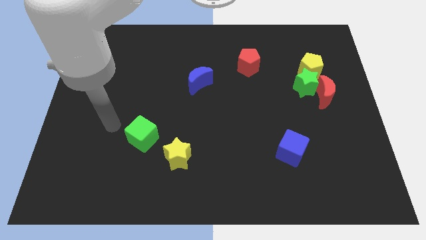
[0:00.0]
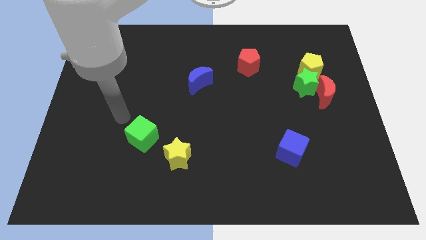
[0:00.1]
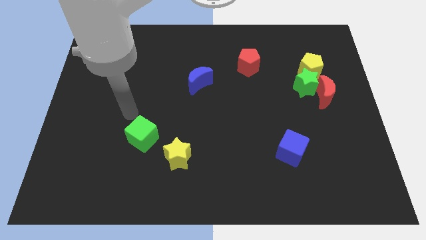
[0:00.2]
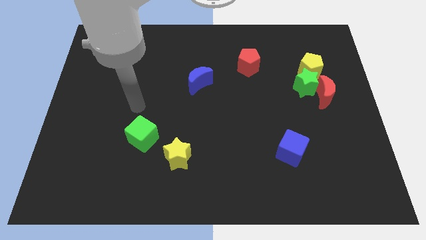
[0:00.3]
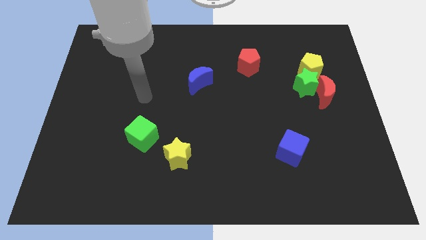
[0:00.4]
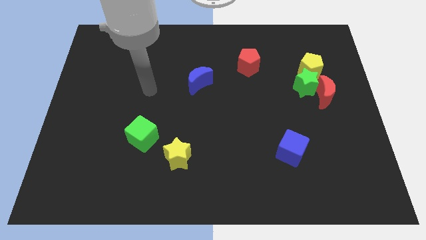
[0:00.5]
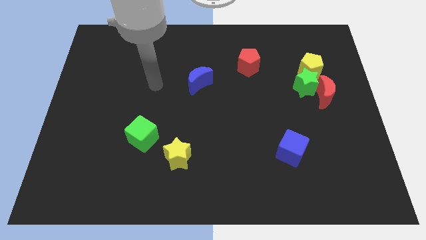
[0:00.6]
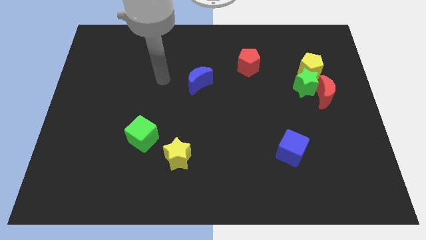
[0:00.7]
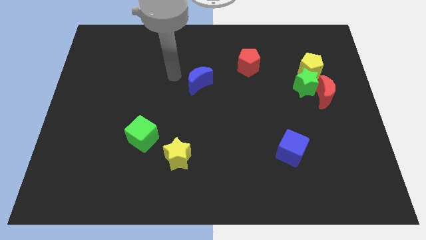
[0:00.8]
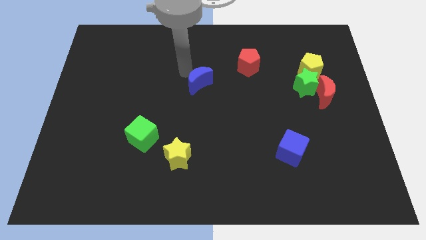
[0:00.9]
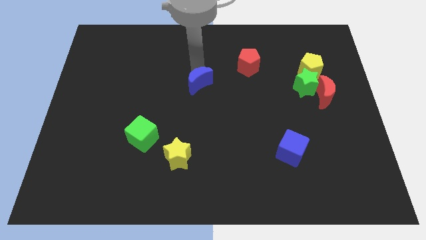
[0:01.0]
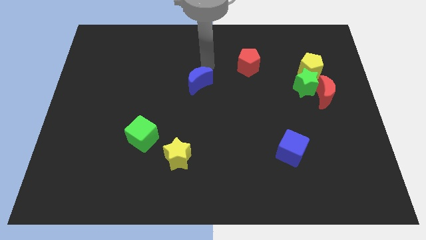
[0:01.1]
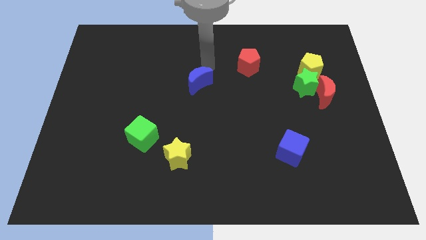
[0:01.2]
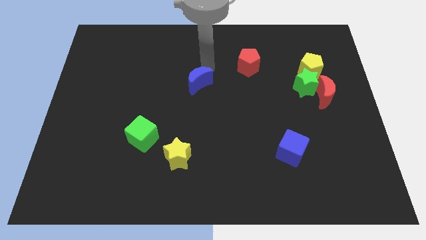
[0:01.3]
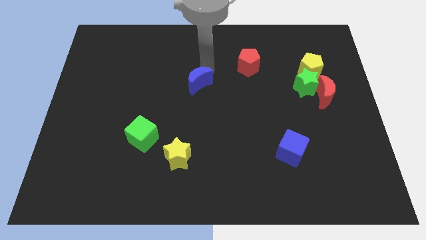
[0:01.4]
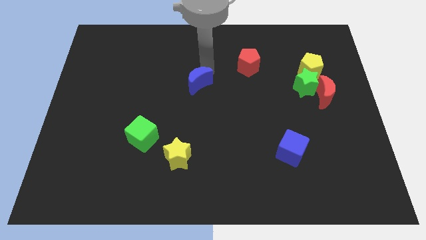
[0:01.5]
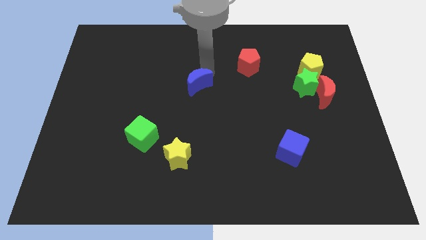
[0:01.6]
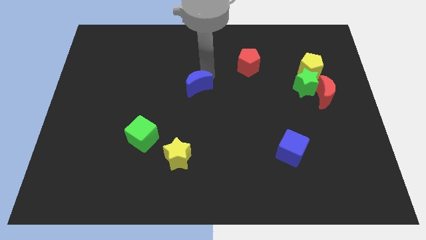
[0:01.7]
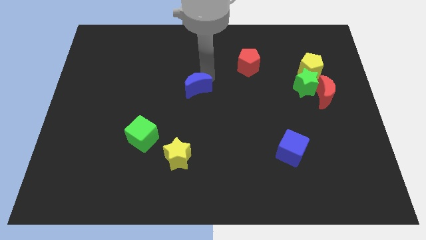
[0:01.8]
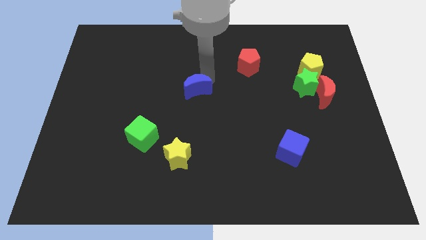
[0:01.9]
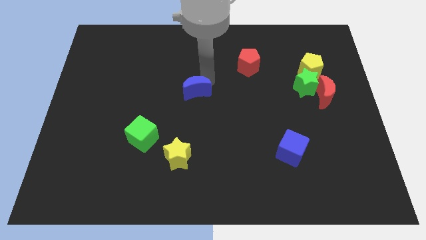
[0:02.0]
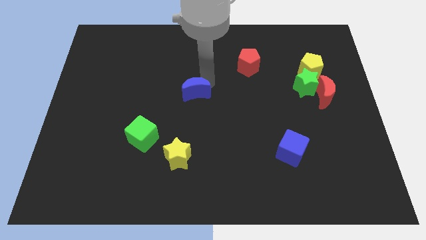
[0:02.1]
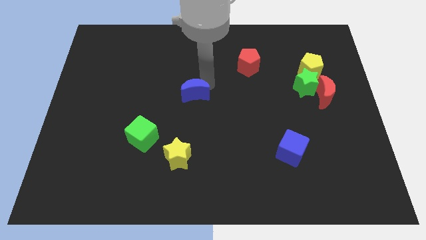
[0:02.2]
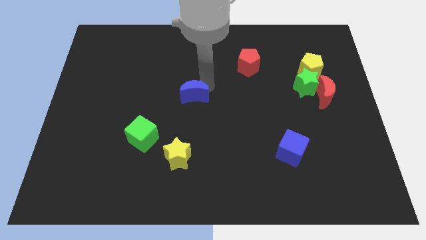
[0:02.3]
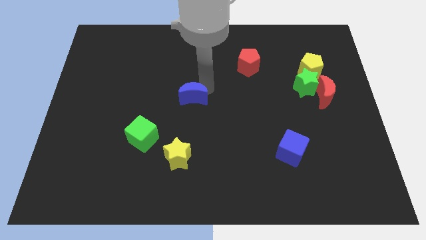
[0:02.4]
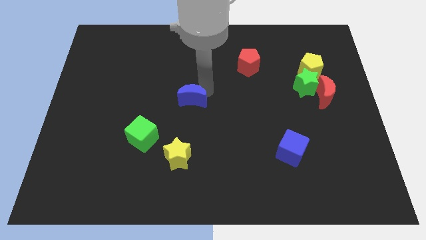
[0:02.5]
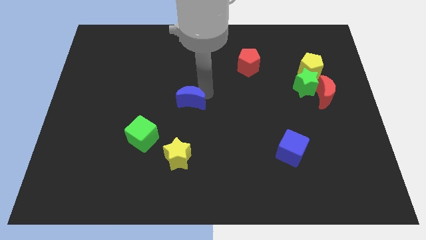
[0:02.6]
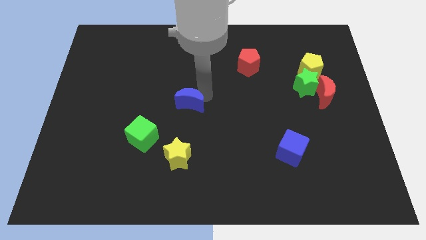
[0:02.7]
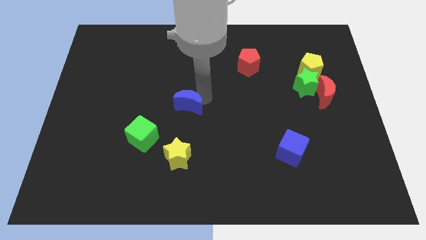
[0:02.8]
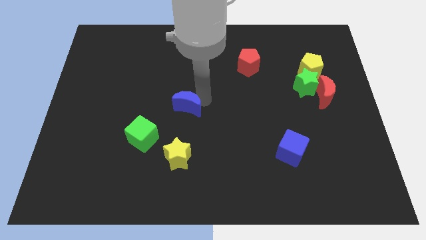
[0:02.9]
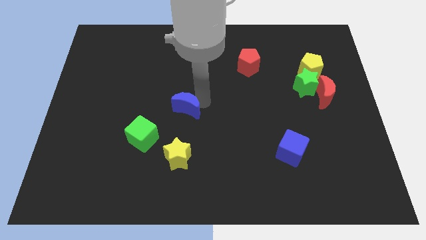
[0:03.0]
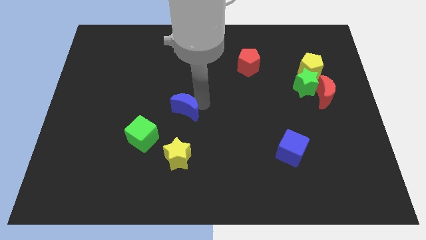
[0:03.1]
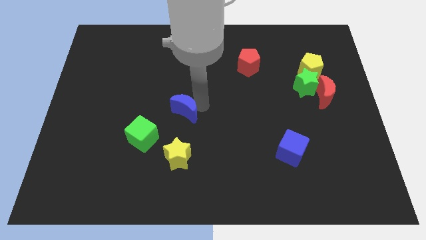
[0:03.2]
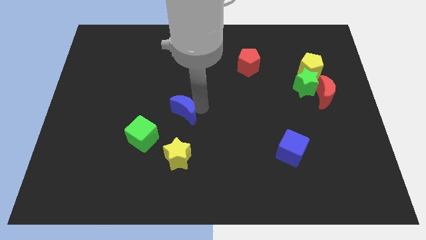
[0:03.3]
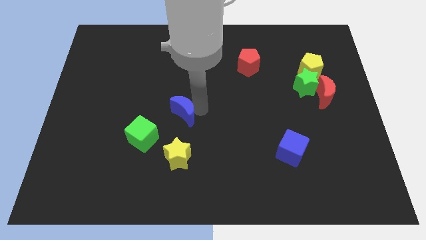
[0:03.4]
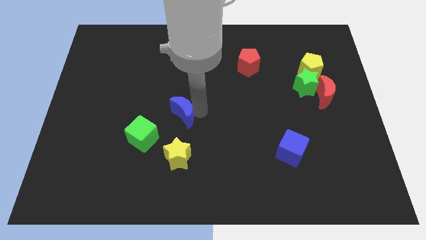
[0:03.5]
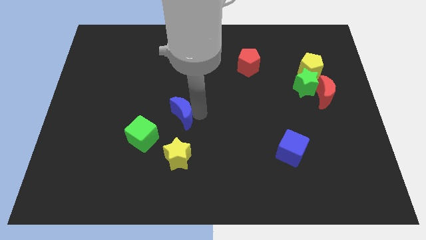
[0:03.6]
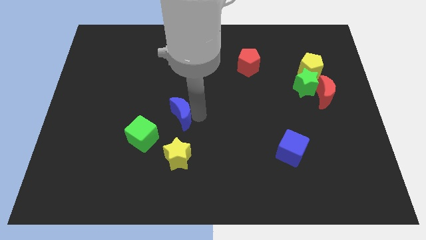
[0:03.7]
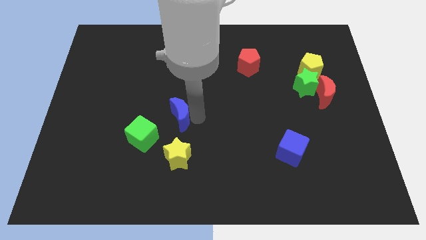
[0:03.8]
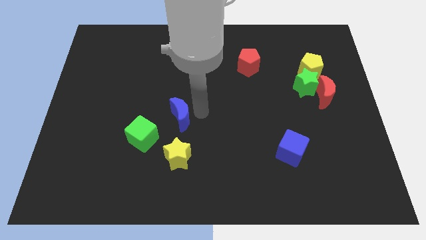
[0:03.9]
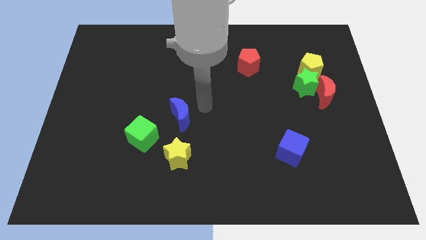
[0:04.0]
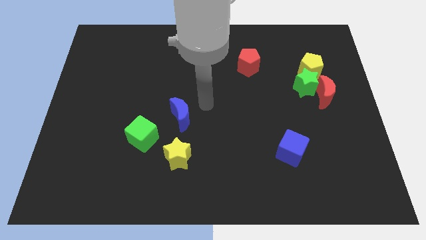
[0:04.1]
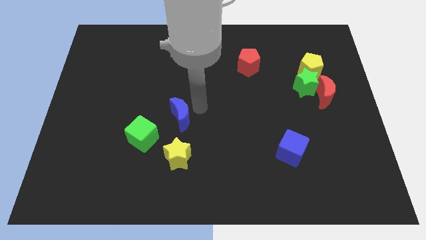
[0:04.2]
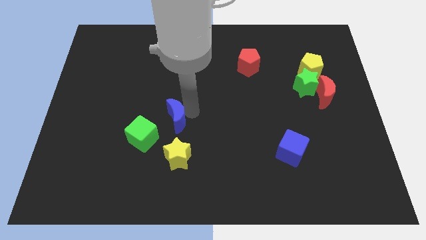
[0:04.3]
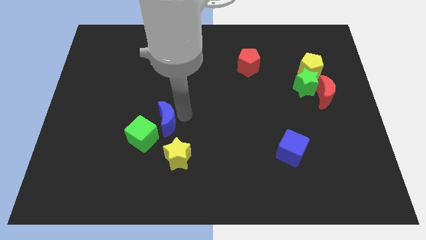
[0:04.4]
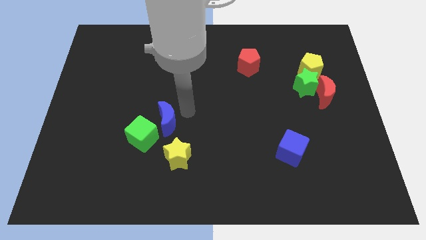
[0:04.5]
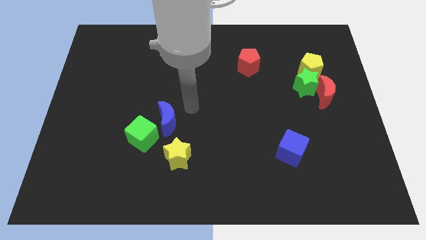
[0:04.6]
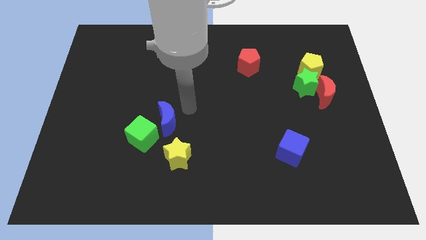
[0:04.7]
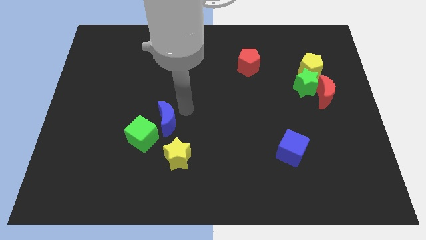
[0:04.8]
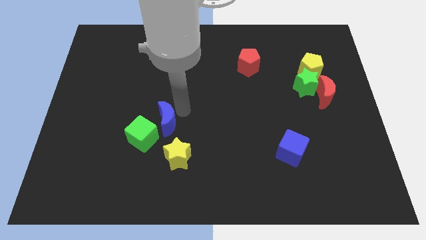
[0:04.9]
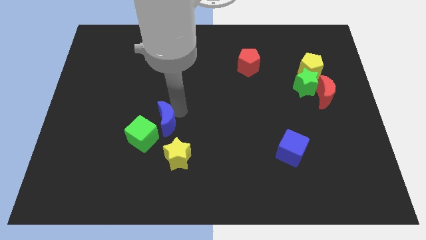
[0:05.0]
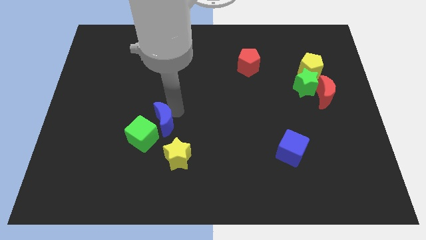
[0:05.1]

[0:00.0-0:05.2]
put the blue moon towards the green cube

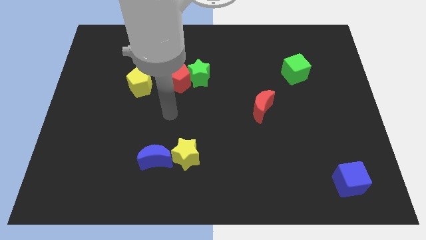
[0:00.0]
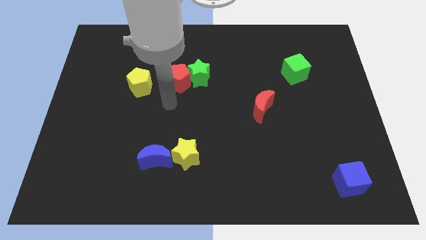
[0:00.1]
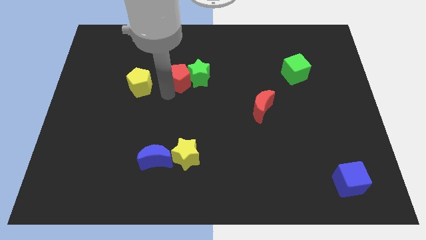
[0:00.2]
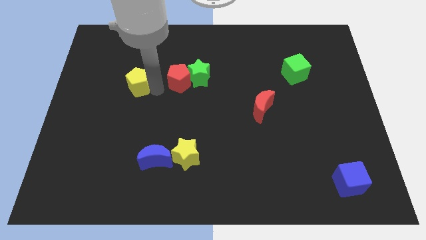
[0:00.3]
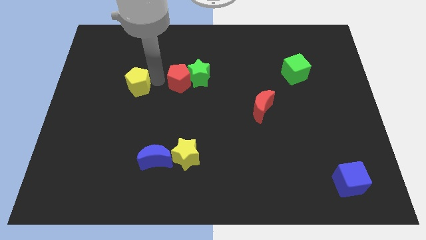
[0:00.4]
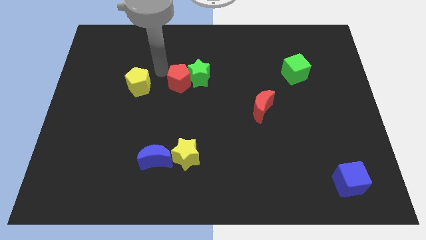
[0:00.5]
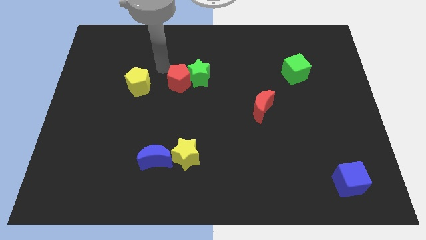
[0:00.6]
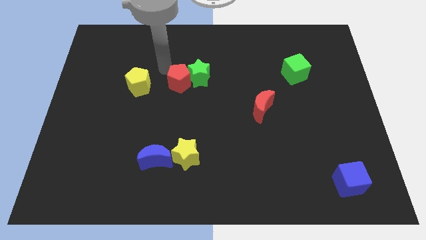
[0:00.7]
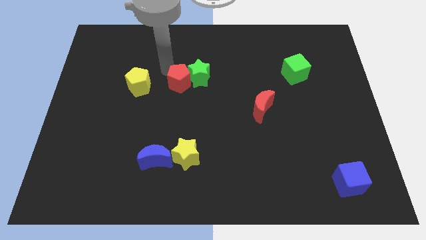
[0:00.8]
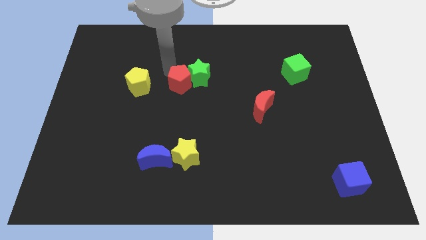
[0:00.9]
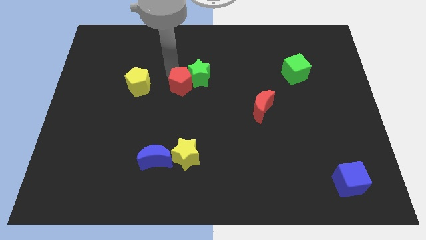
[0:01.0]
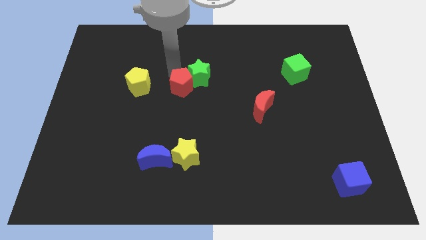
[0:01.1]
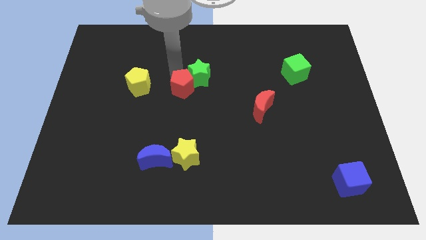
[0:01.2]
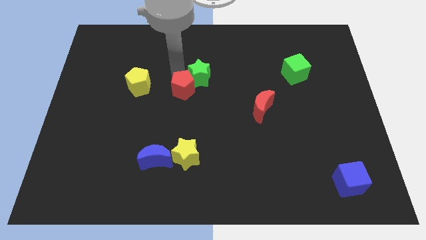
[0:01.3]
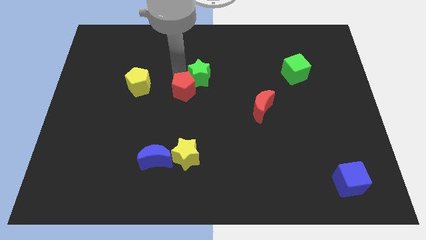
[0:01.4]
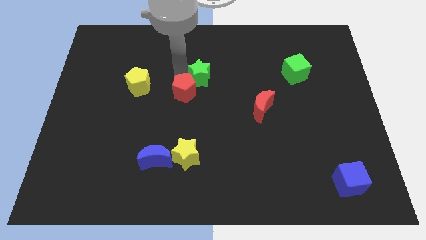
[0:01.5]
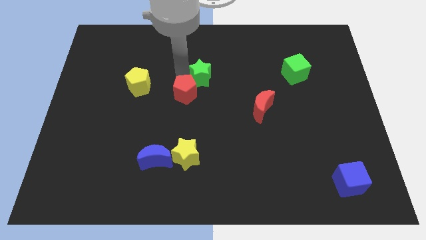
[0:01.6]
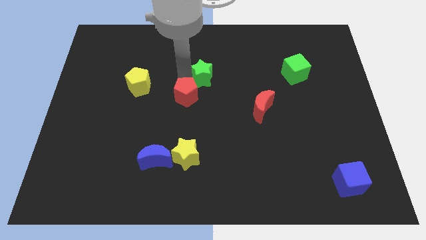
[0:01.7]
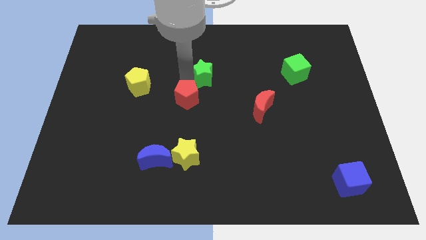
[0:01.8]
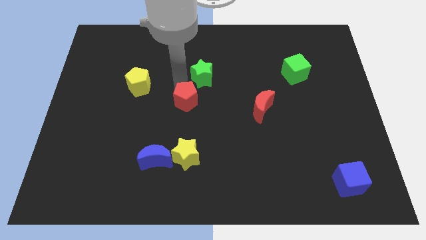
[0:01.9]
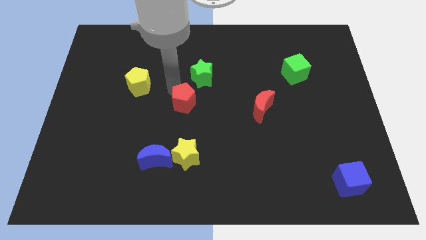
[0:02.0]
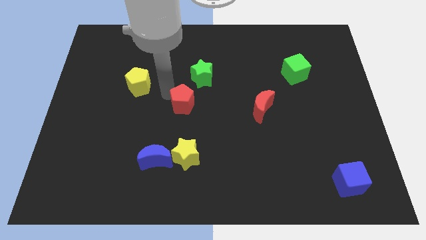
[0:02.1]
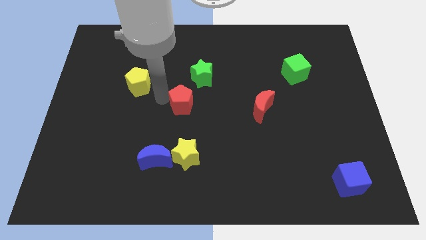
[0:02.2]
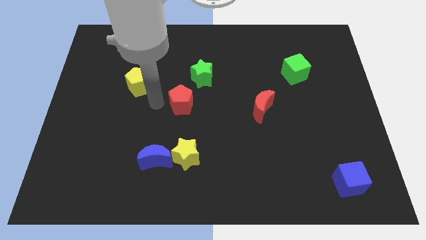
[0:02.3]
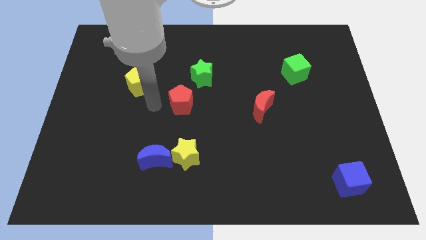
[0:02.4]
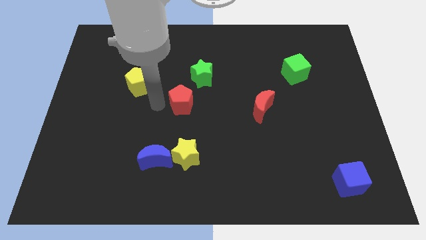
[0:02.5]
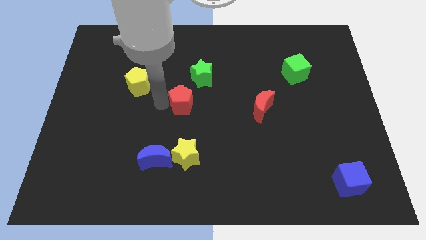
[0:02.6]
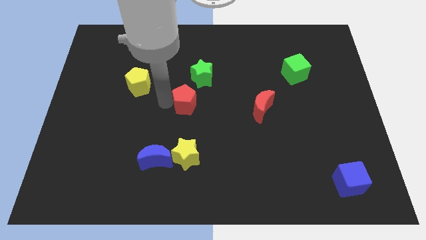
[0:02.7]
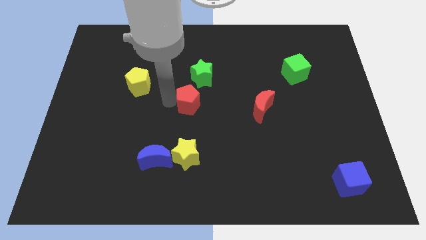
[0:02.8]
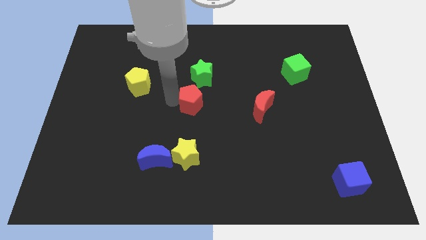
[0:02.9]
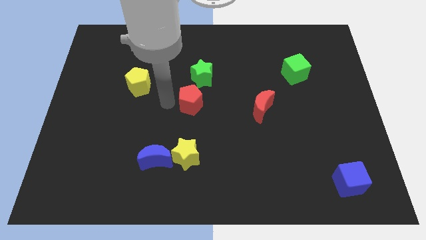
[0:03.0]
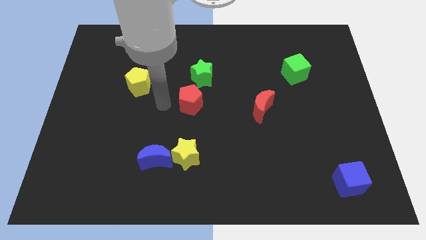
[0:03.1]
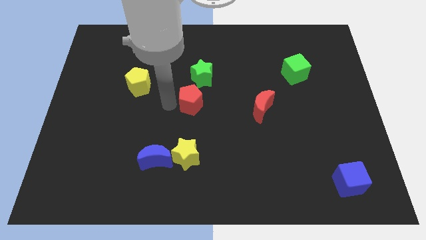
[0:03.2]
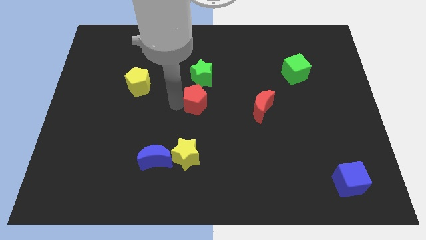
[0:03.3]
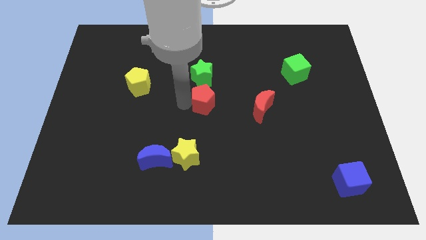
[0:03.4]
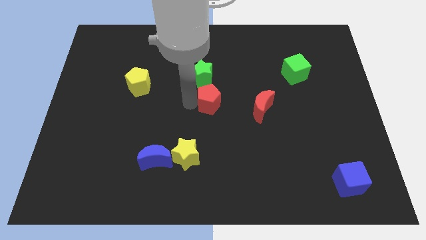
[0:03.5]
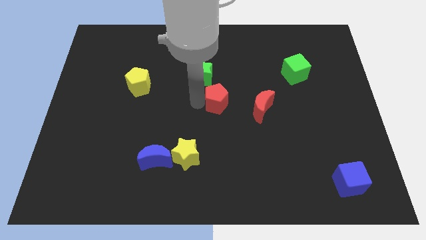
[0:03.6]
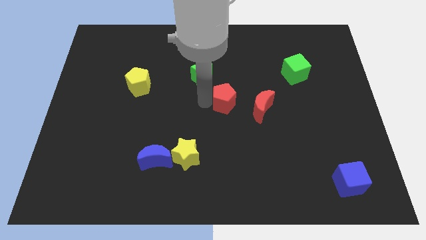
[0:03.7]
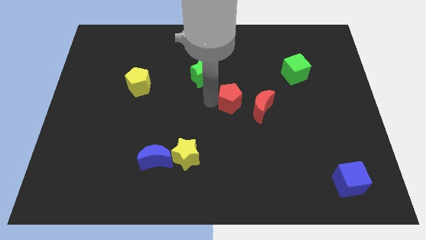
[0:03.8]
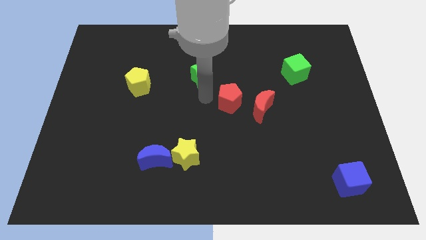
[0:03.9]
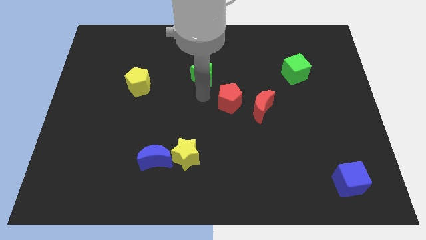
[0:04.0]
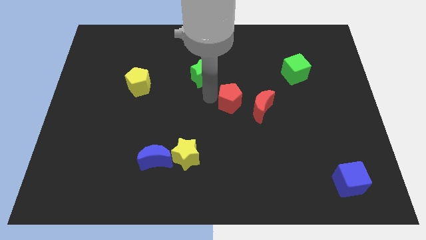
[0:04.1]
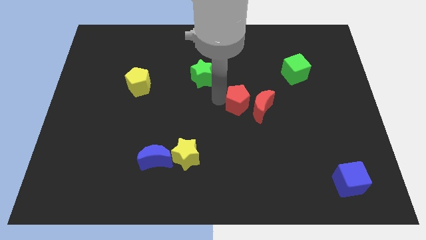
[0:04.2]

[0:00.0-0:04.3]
put the red pentagon towards the red moon
